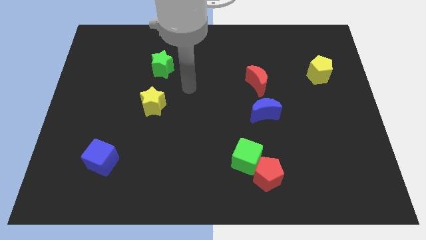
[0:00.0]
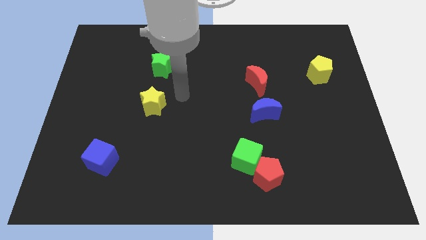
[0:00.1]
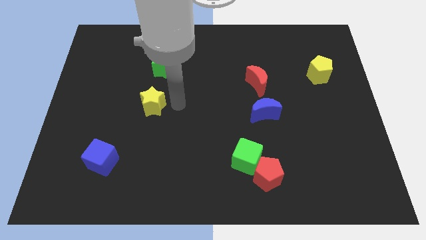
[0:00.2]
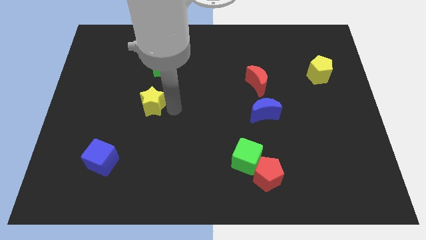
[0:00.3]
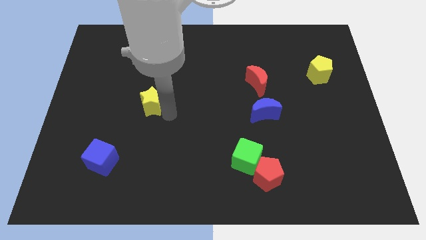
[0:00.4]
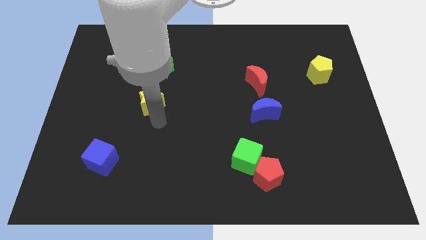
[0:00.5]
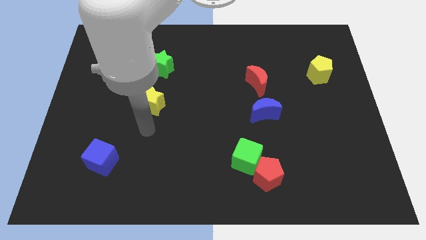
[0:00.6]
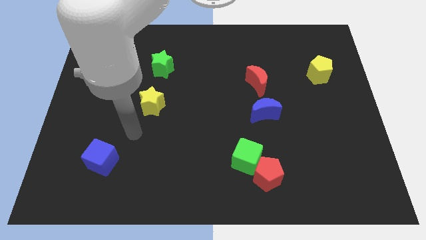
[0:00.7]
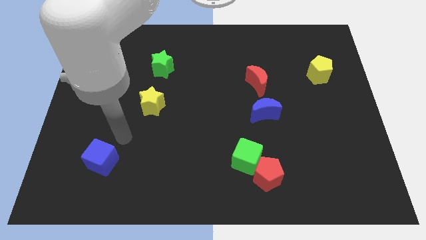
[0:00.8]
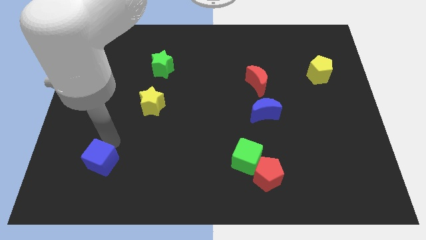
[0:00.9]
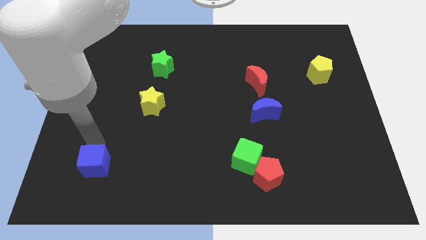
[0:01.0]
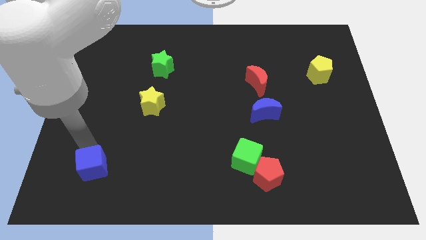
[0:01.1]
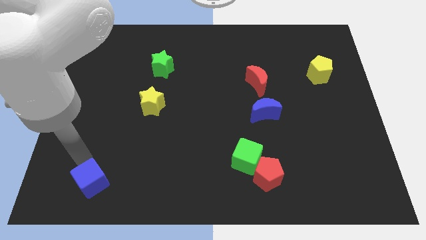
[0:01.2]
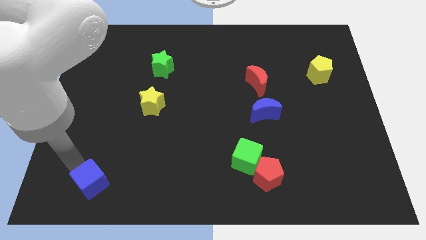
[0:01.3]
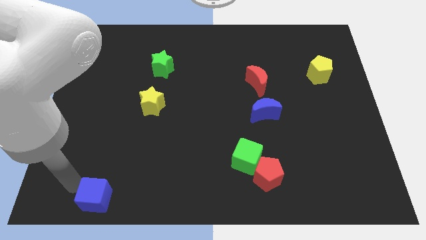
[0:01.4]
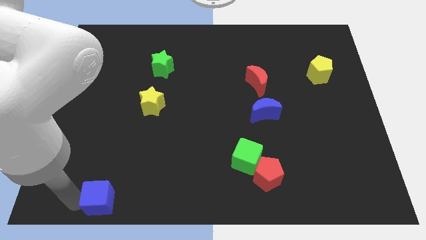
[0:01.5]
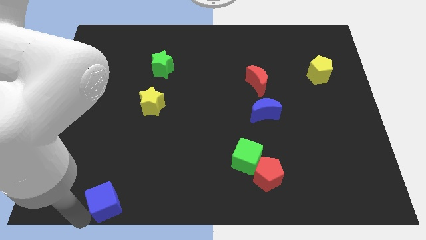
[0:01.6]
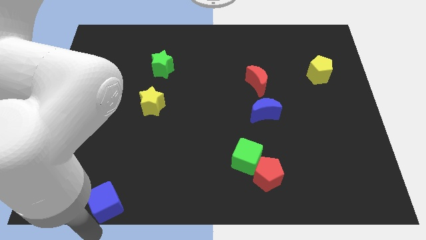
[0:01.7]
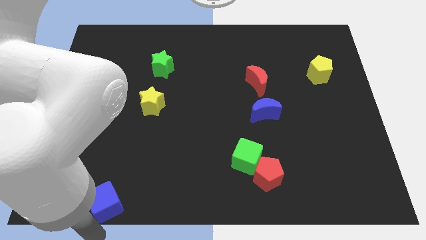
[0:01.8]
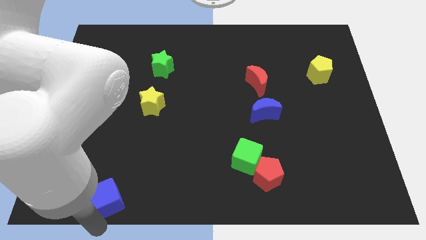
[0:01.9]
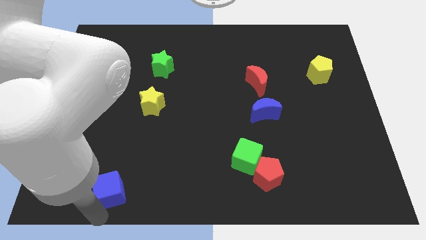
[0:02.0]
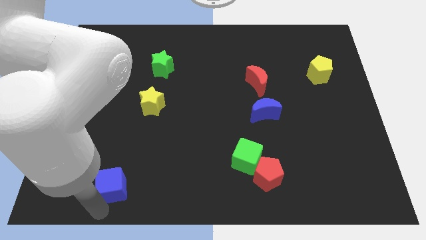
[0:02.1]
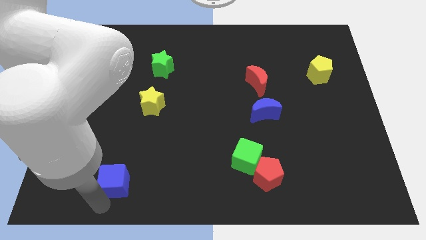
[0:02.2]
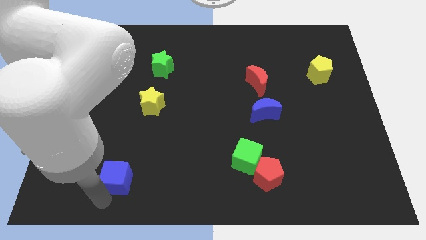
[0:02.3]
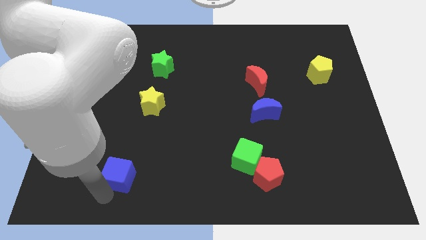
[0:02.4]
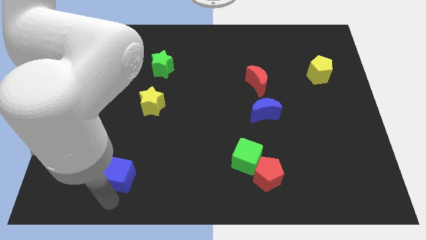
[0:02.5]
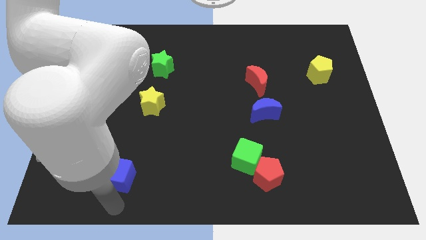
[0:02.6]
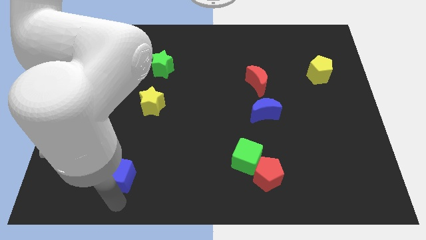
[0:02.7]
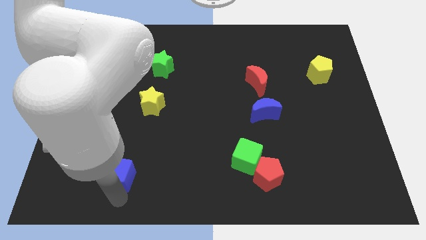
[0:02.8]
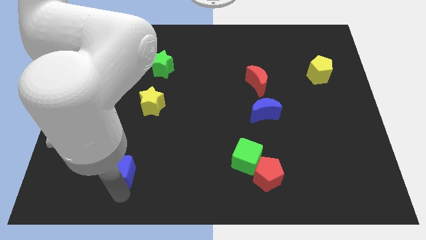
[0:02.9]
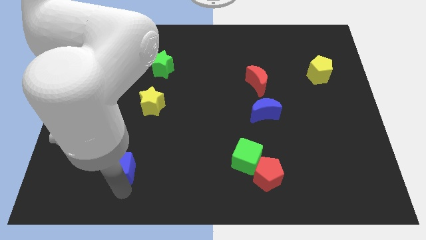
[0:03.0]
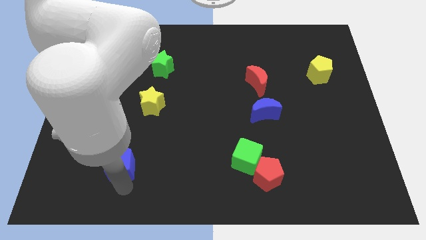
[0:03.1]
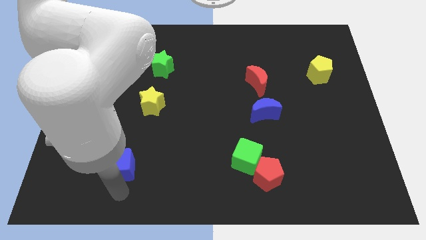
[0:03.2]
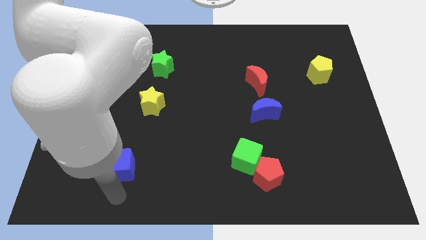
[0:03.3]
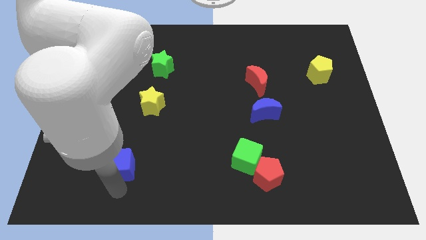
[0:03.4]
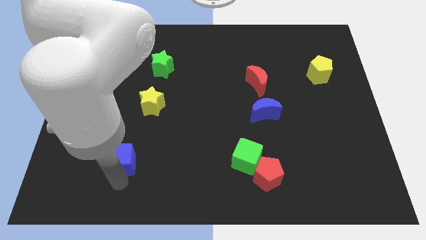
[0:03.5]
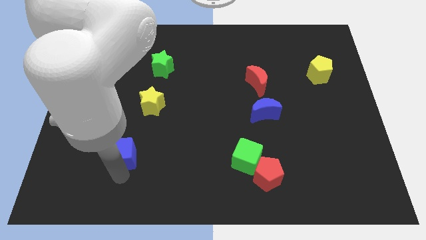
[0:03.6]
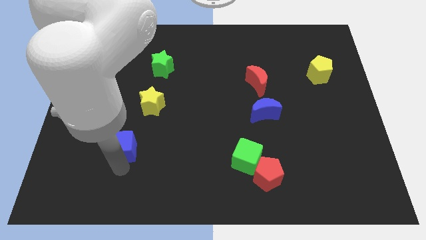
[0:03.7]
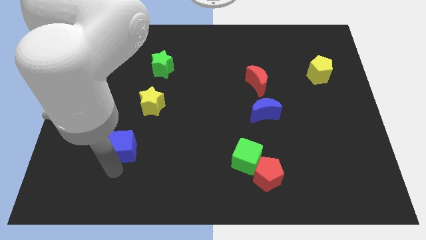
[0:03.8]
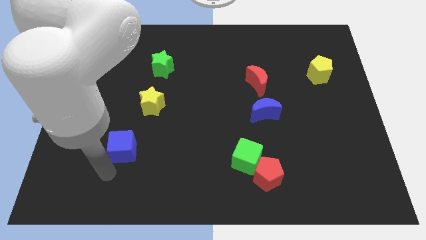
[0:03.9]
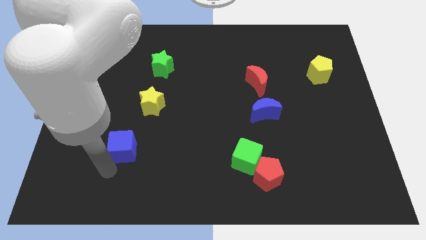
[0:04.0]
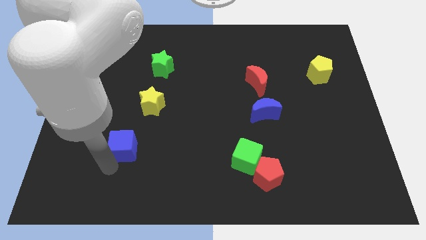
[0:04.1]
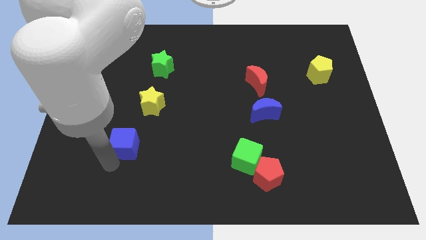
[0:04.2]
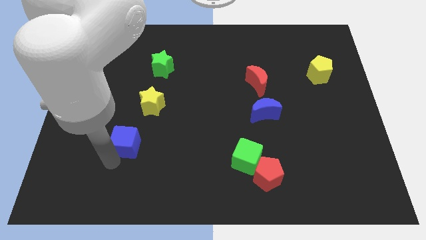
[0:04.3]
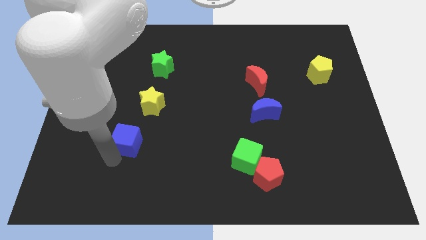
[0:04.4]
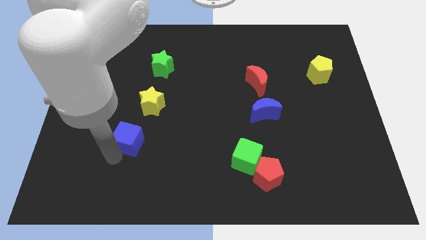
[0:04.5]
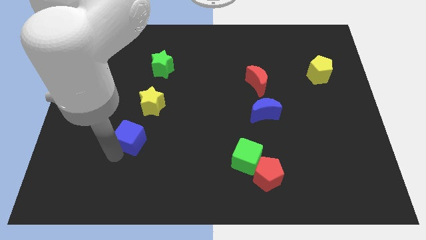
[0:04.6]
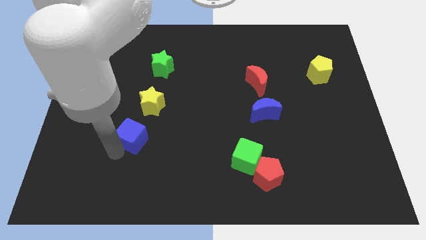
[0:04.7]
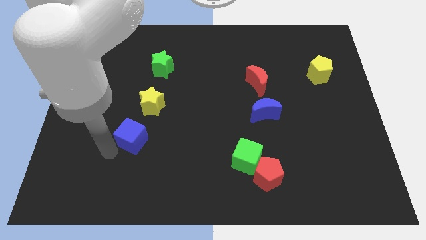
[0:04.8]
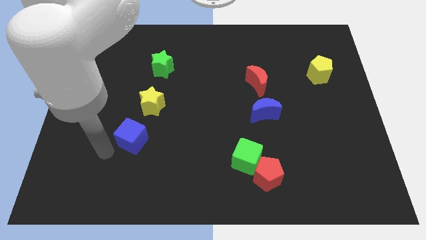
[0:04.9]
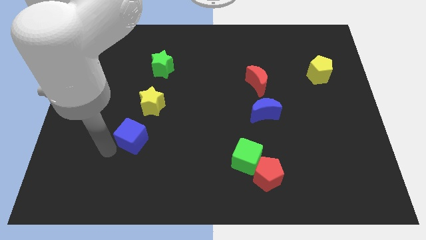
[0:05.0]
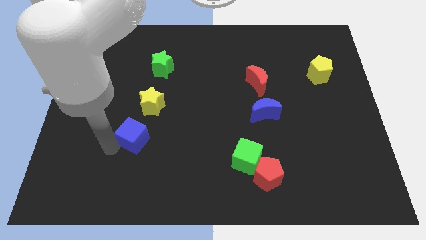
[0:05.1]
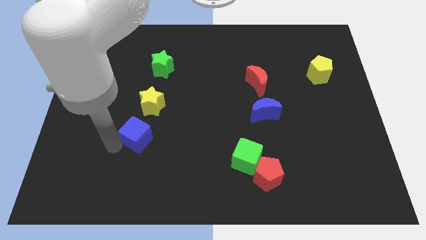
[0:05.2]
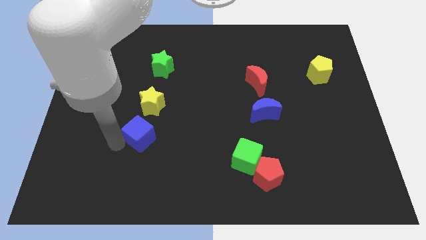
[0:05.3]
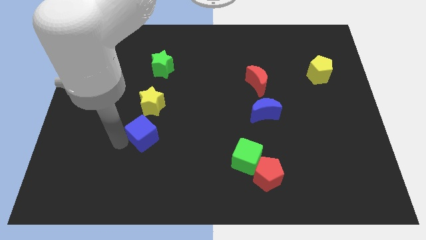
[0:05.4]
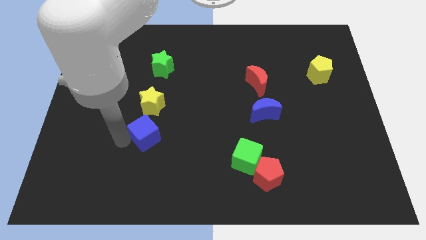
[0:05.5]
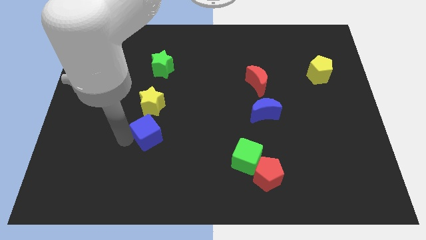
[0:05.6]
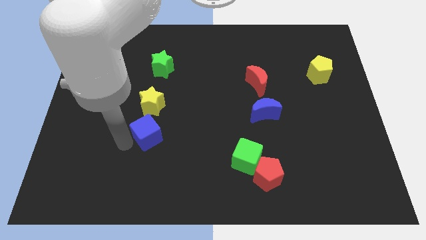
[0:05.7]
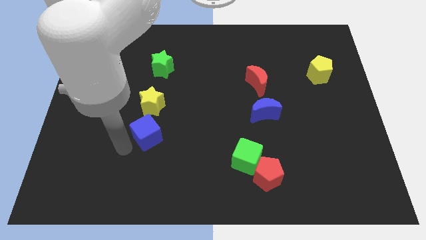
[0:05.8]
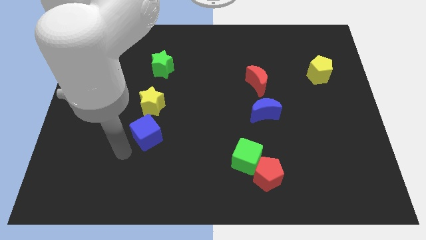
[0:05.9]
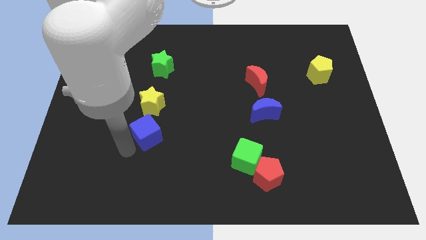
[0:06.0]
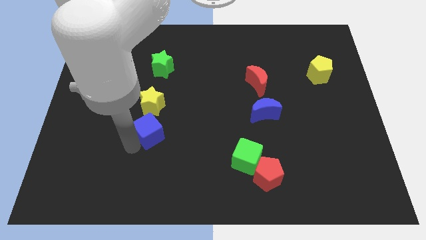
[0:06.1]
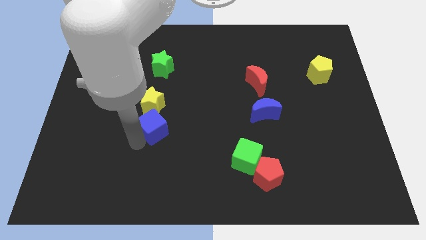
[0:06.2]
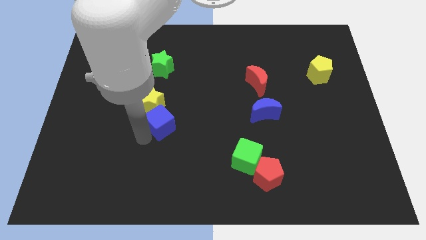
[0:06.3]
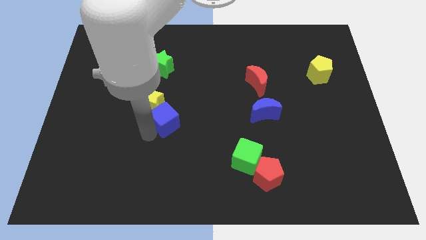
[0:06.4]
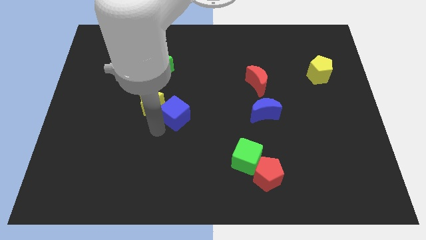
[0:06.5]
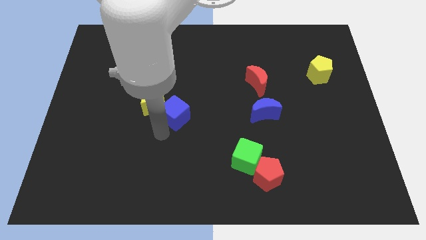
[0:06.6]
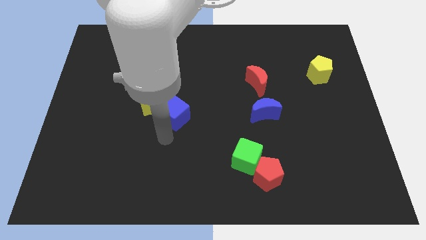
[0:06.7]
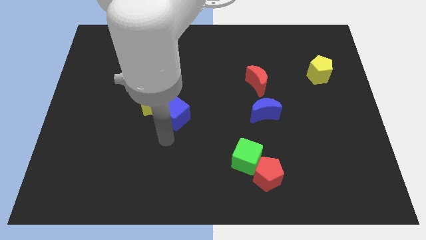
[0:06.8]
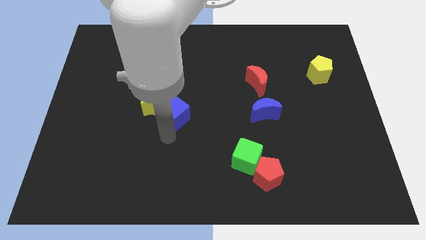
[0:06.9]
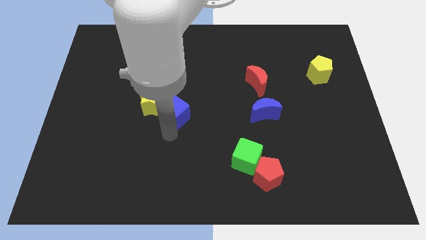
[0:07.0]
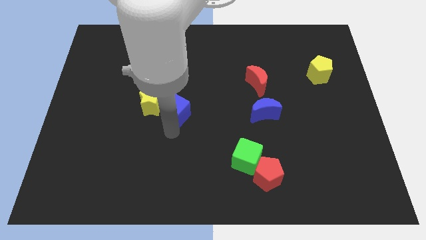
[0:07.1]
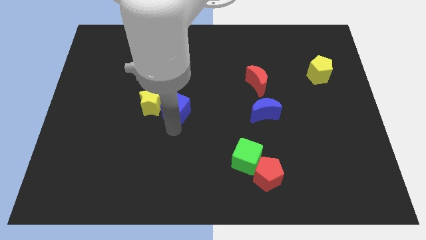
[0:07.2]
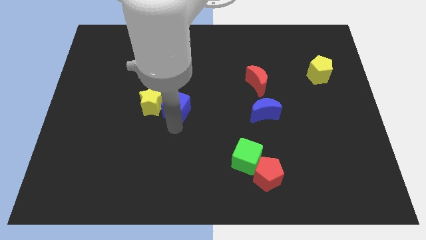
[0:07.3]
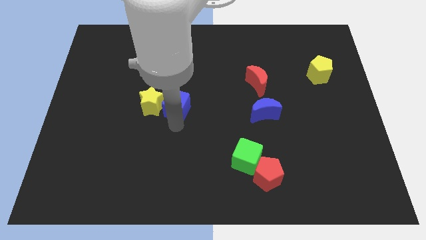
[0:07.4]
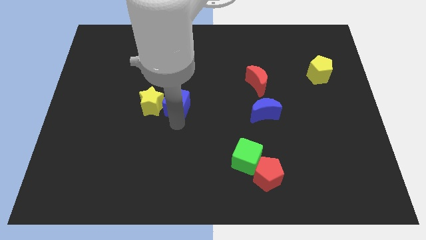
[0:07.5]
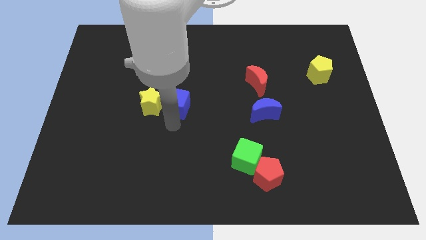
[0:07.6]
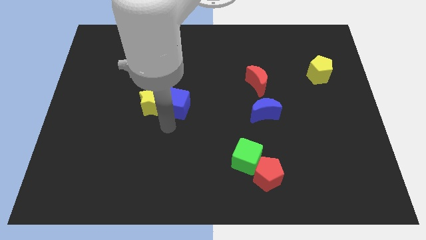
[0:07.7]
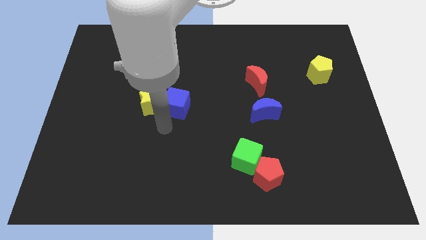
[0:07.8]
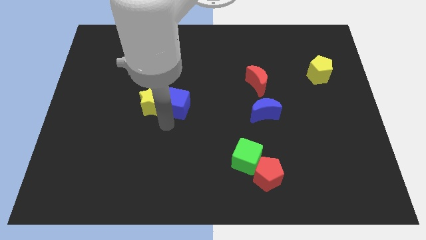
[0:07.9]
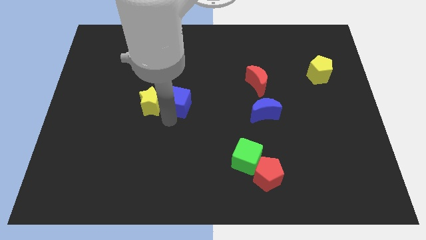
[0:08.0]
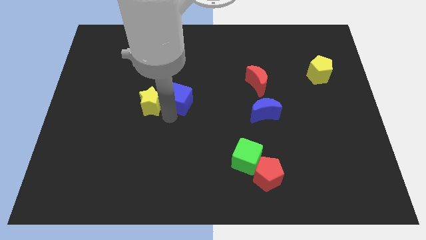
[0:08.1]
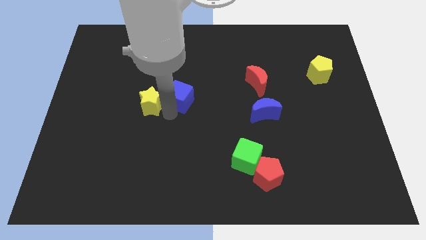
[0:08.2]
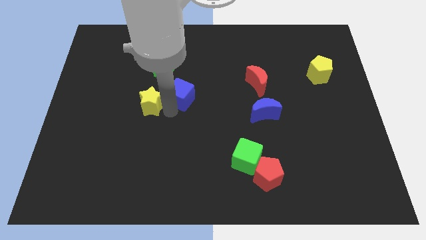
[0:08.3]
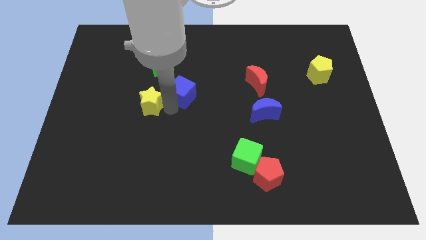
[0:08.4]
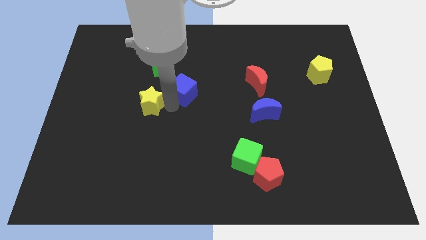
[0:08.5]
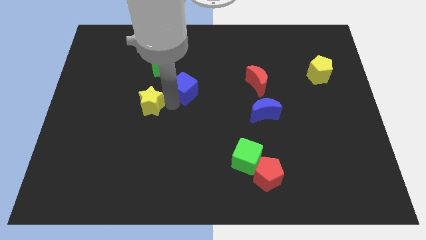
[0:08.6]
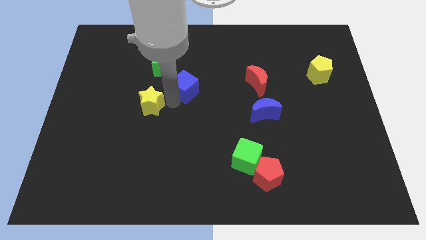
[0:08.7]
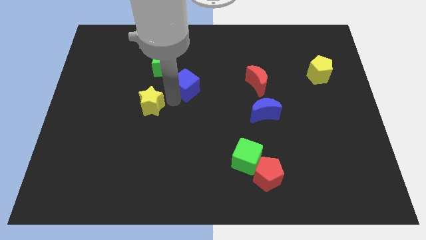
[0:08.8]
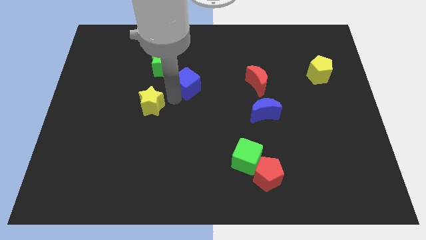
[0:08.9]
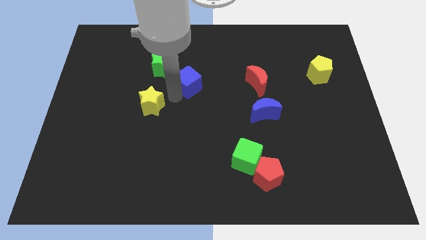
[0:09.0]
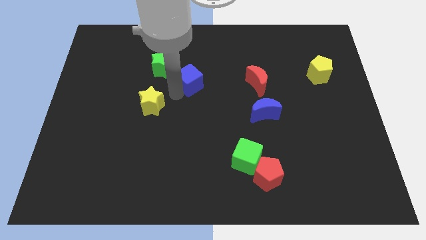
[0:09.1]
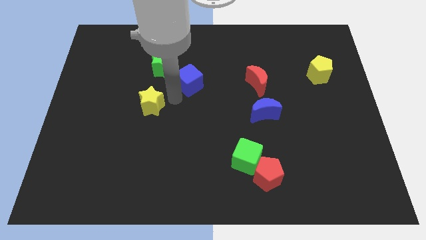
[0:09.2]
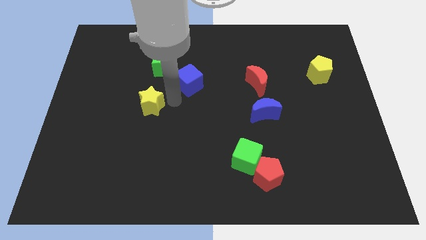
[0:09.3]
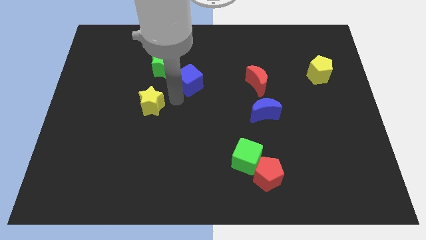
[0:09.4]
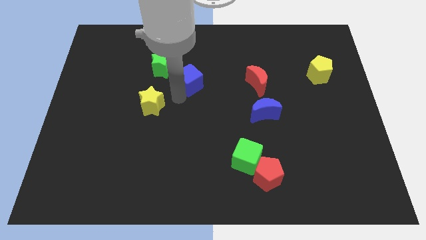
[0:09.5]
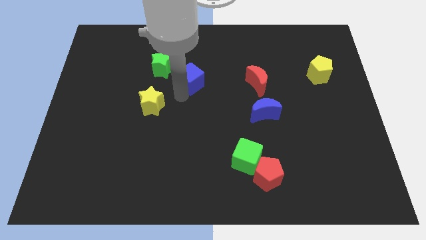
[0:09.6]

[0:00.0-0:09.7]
push the blue cube to the right of the green star
